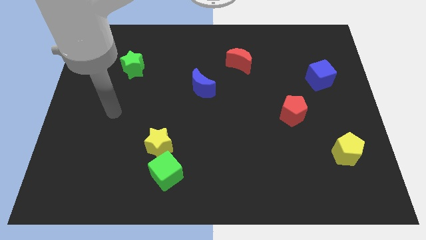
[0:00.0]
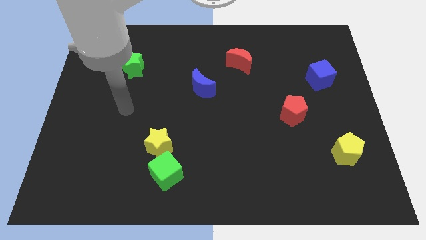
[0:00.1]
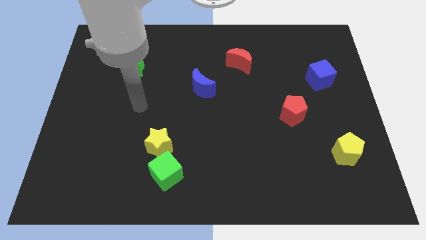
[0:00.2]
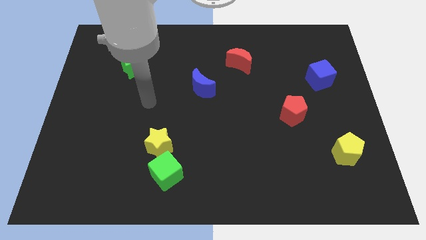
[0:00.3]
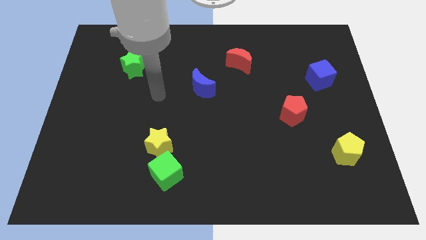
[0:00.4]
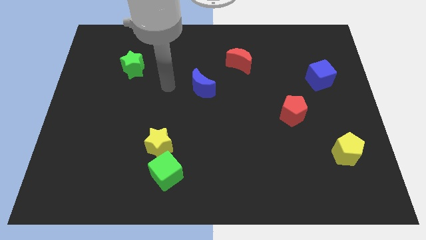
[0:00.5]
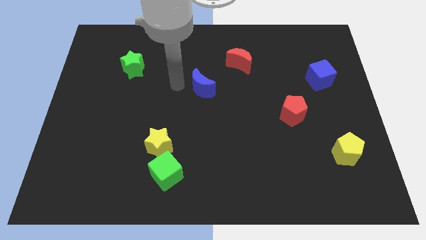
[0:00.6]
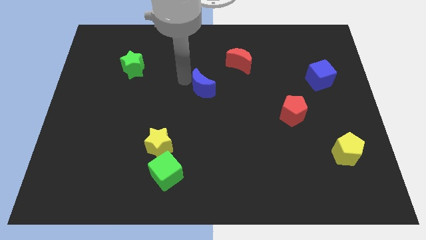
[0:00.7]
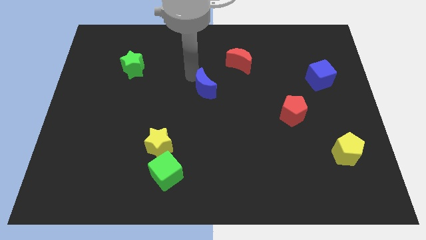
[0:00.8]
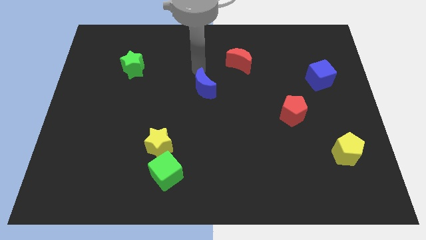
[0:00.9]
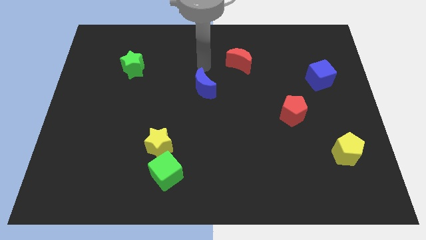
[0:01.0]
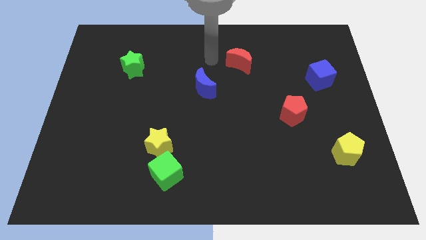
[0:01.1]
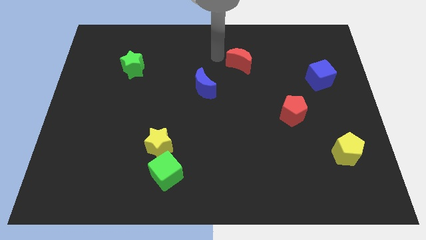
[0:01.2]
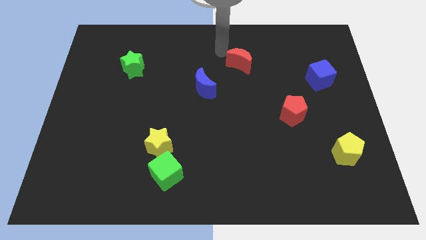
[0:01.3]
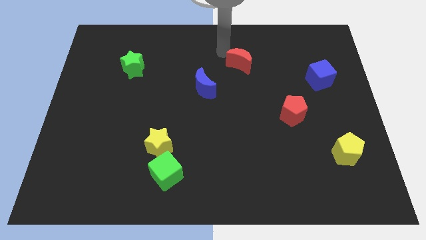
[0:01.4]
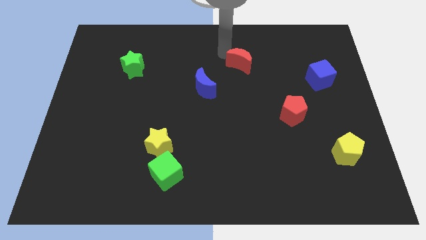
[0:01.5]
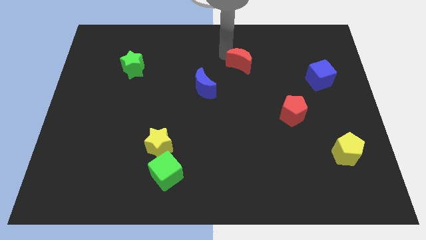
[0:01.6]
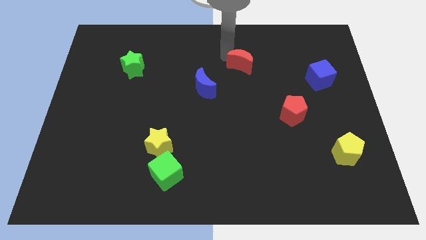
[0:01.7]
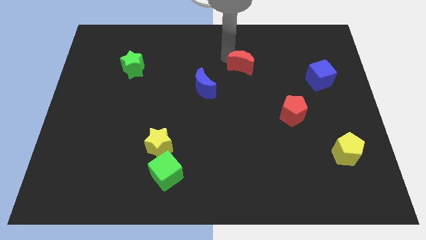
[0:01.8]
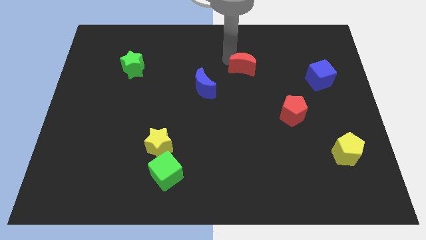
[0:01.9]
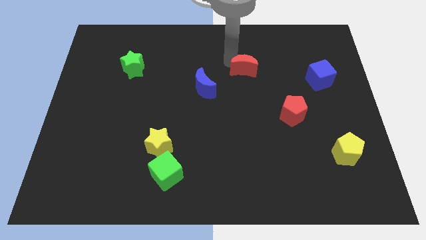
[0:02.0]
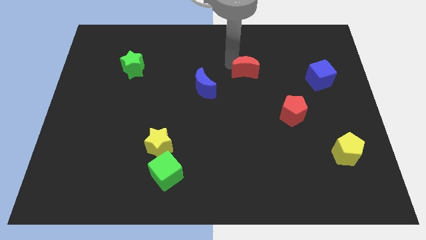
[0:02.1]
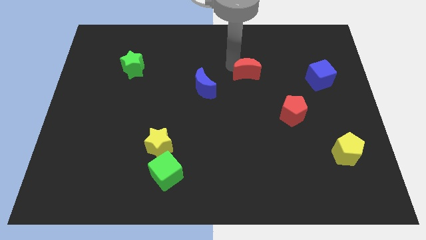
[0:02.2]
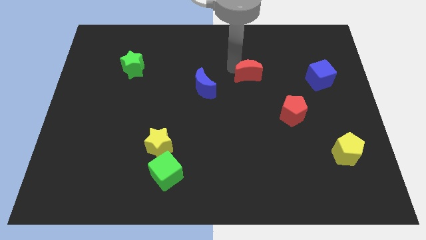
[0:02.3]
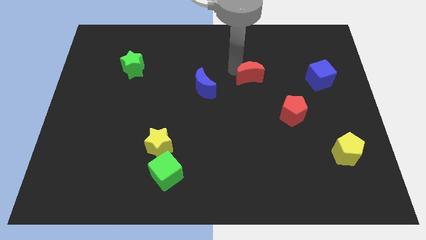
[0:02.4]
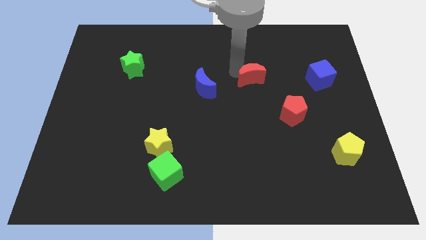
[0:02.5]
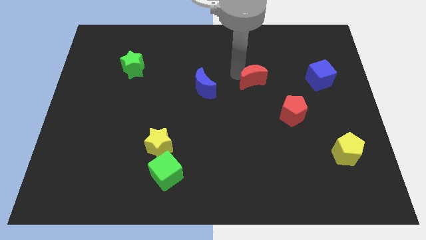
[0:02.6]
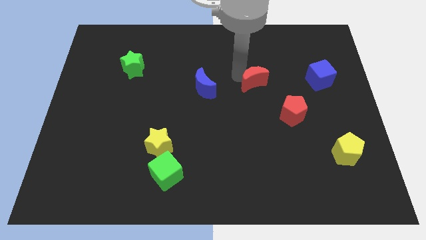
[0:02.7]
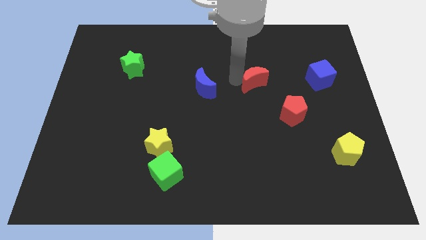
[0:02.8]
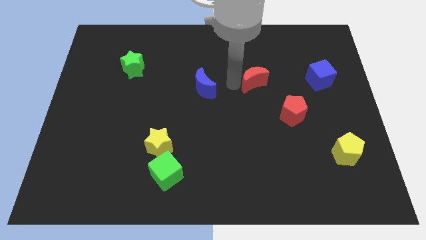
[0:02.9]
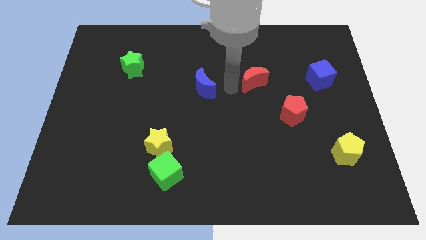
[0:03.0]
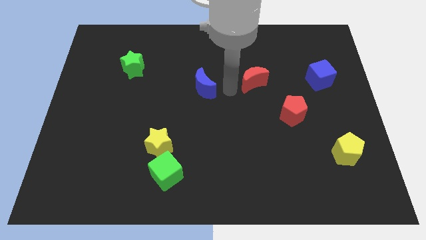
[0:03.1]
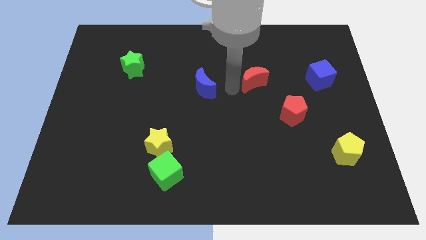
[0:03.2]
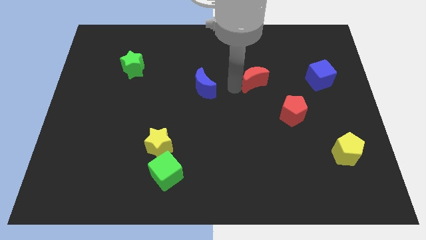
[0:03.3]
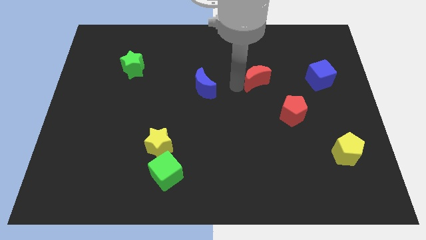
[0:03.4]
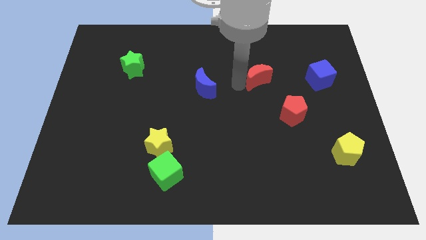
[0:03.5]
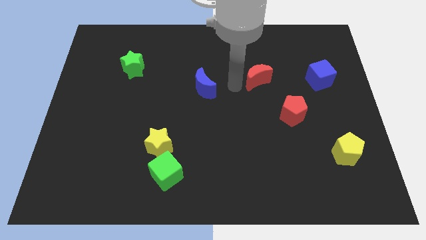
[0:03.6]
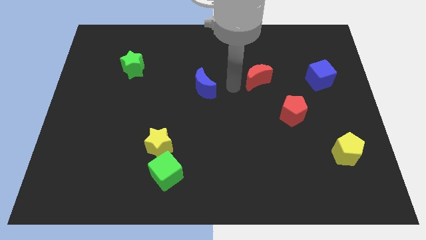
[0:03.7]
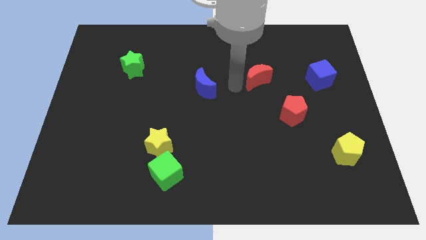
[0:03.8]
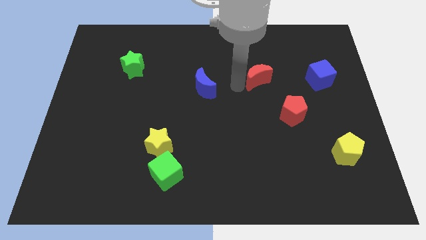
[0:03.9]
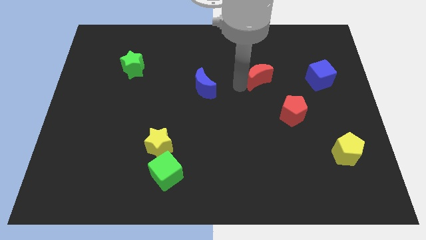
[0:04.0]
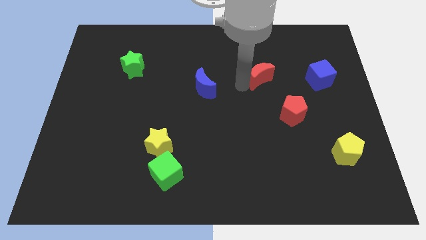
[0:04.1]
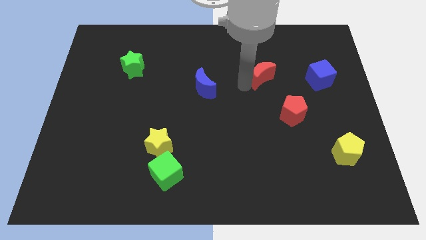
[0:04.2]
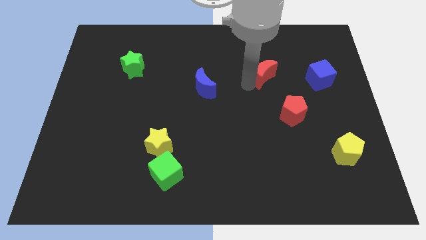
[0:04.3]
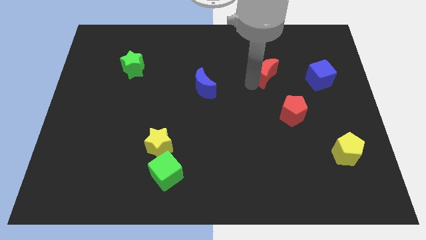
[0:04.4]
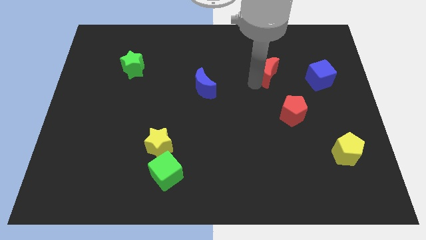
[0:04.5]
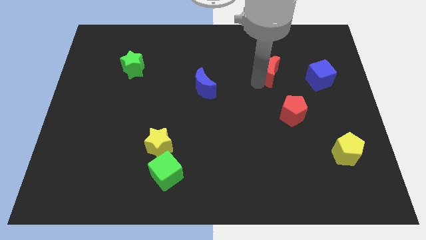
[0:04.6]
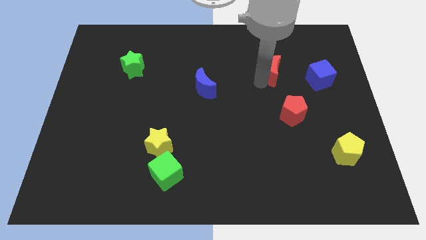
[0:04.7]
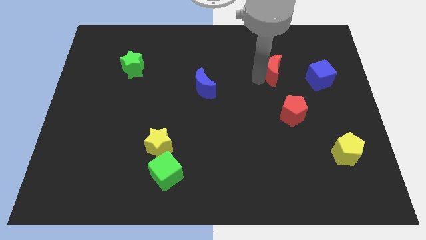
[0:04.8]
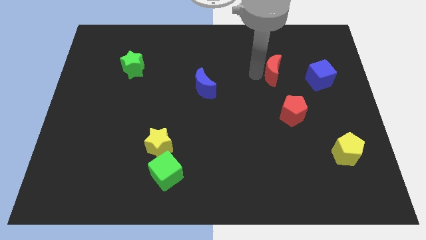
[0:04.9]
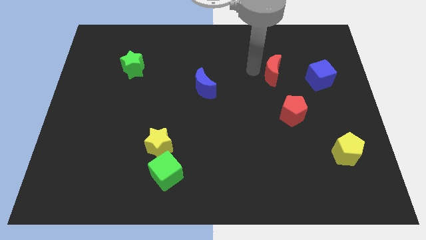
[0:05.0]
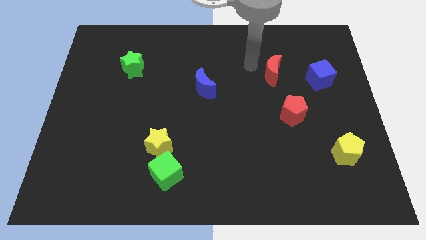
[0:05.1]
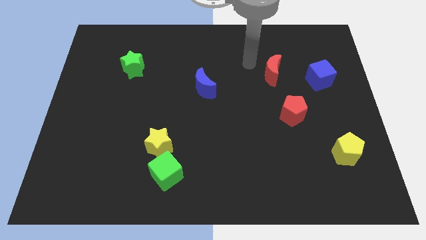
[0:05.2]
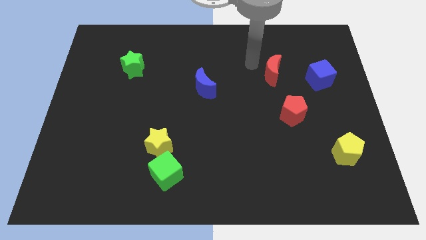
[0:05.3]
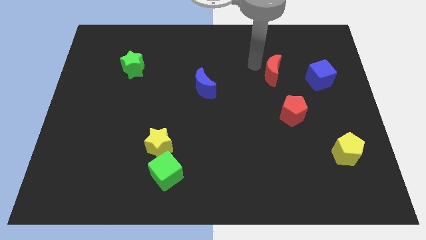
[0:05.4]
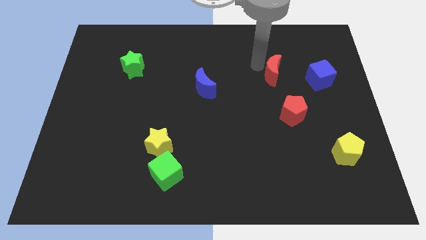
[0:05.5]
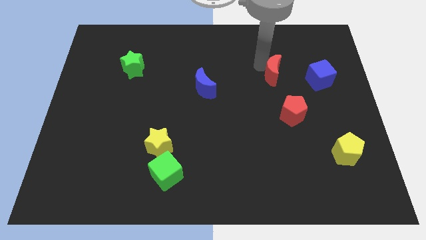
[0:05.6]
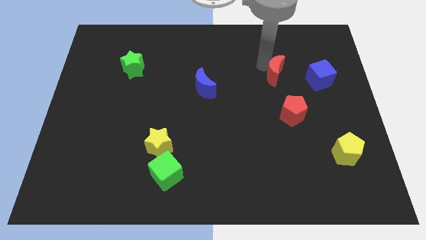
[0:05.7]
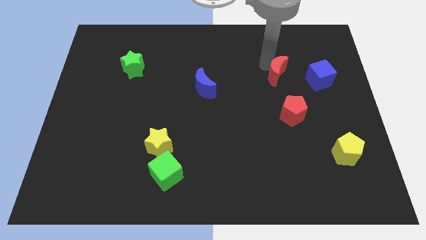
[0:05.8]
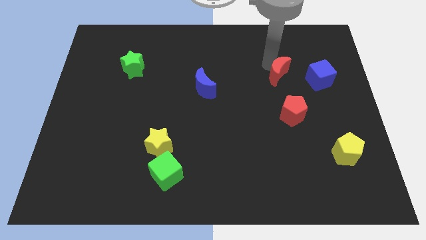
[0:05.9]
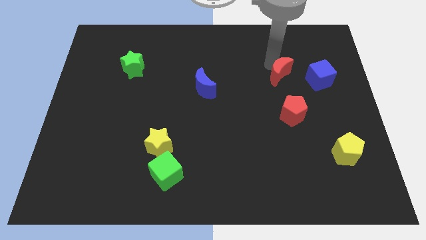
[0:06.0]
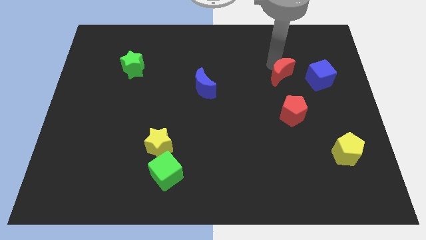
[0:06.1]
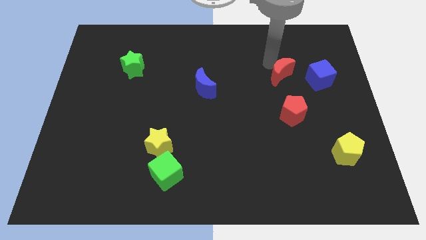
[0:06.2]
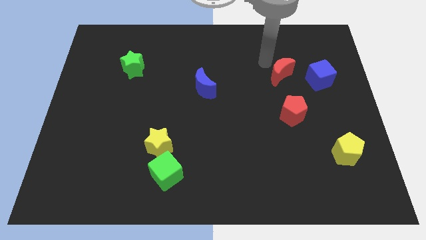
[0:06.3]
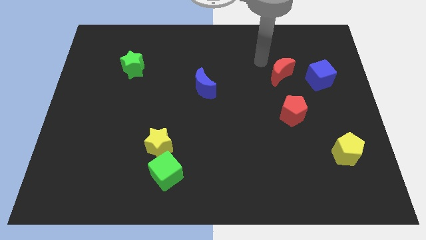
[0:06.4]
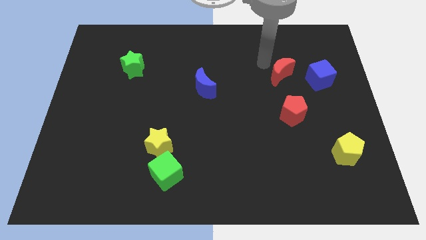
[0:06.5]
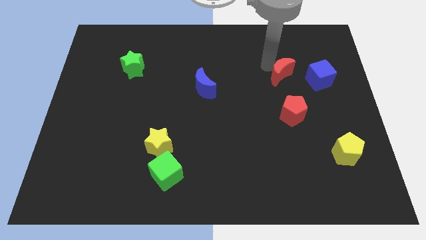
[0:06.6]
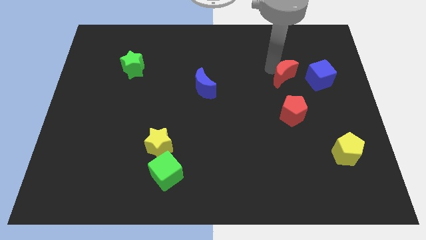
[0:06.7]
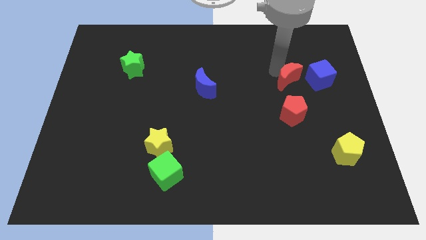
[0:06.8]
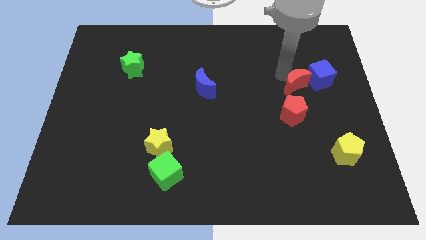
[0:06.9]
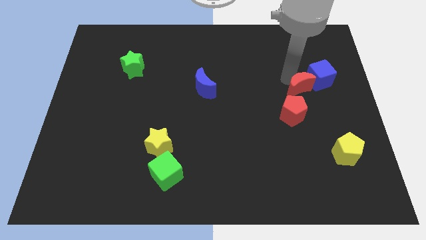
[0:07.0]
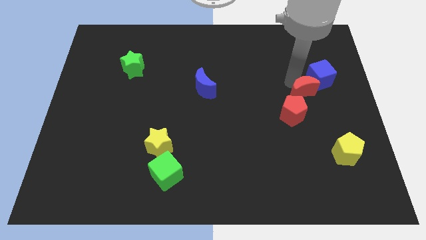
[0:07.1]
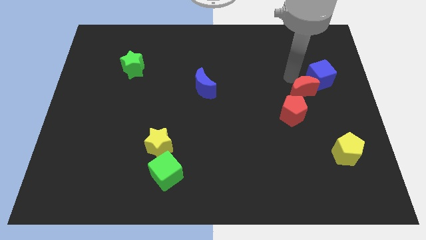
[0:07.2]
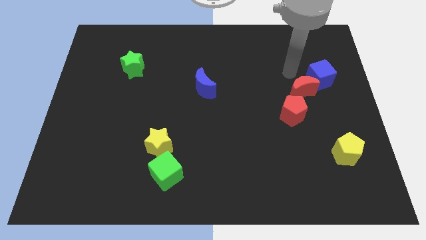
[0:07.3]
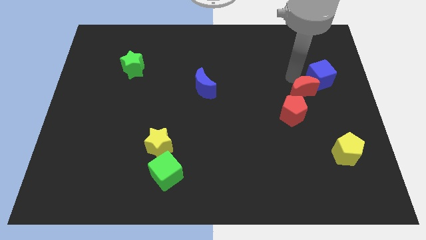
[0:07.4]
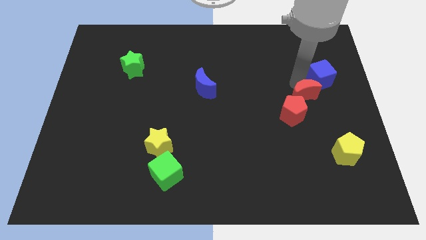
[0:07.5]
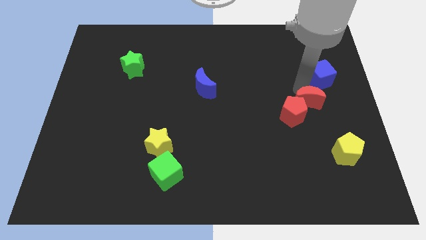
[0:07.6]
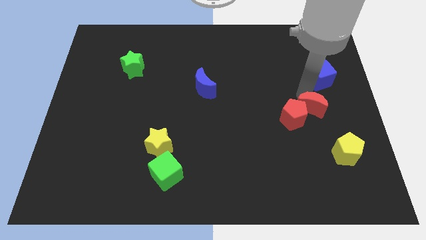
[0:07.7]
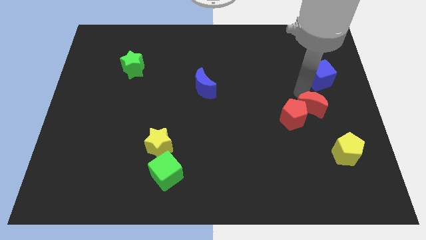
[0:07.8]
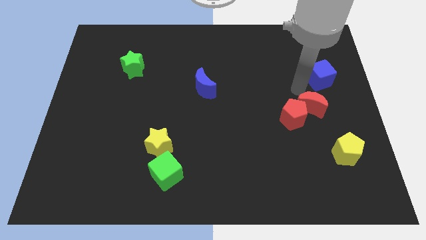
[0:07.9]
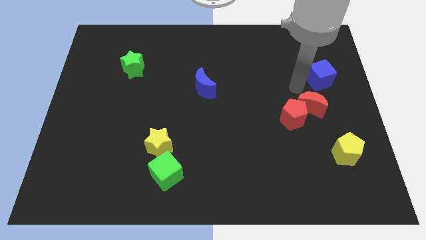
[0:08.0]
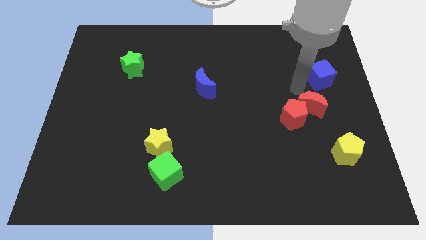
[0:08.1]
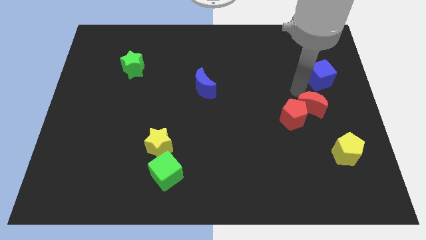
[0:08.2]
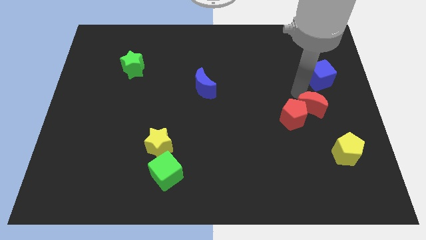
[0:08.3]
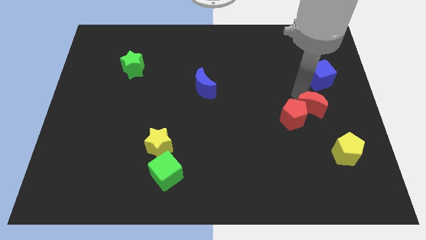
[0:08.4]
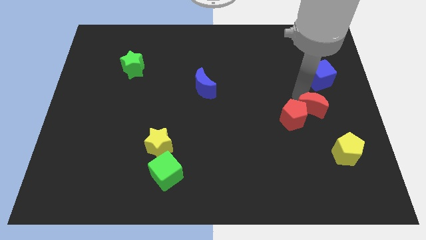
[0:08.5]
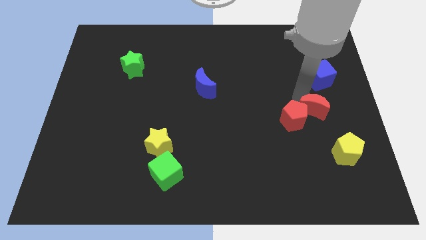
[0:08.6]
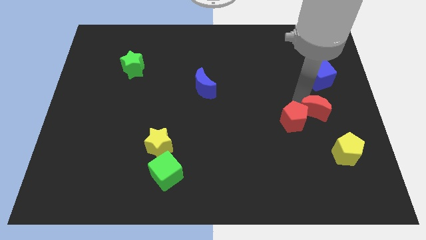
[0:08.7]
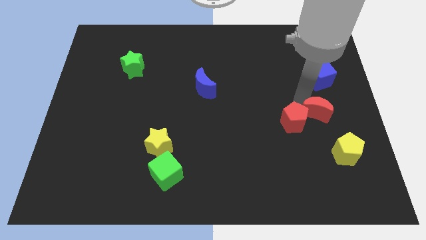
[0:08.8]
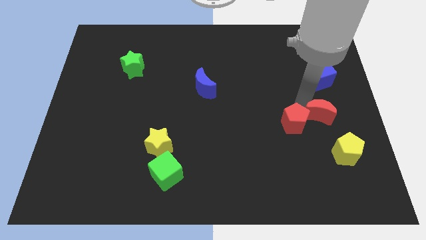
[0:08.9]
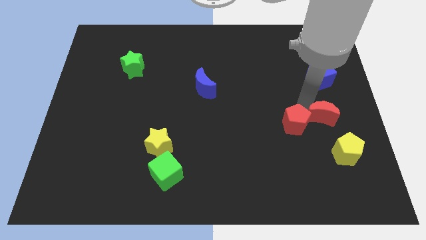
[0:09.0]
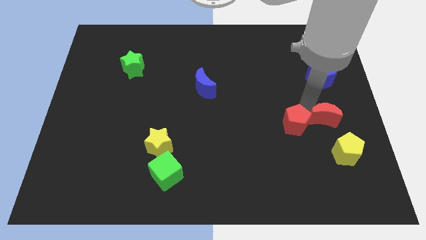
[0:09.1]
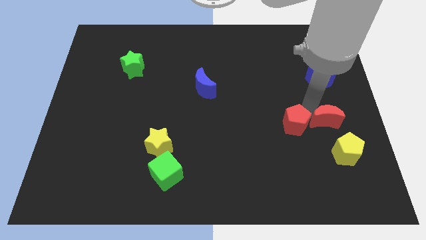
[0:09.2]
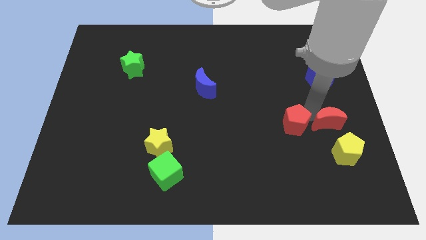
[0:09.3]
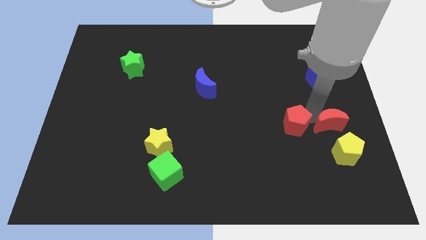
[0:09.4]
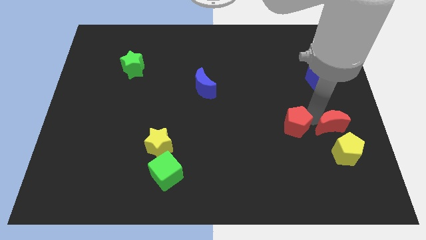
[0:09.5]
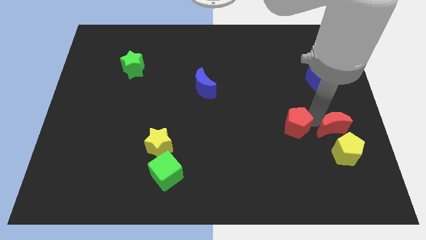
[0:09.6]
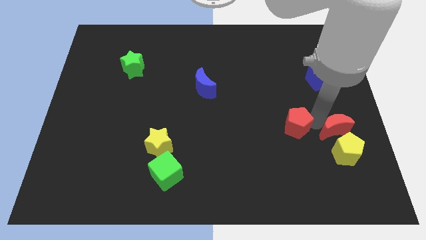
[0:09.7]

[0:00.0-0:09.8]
slide the red moon towards the yellow pentagon
